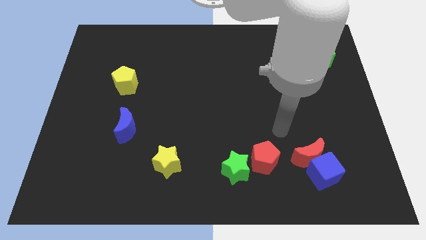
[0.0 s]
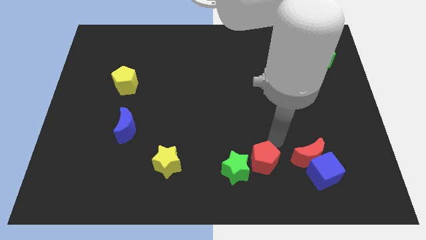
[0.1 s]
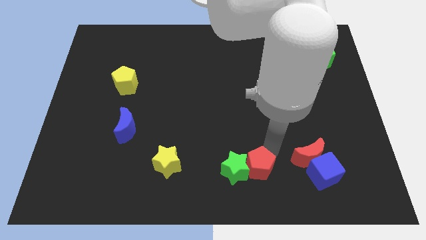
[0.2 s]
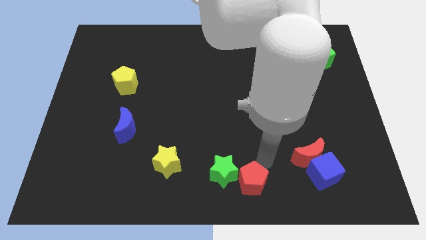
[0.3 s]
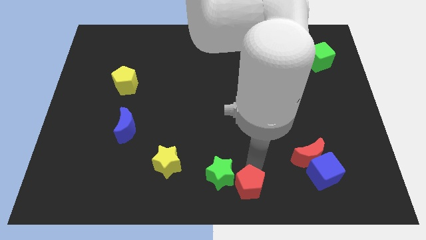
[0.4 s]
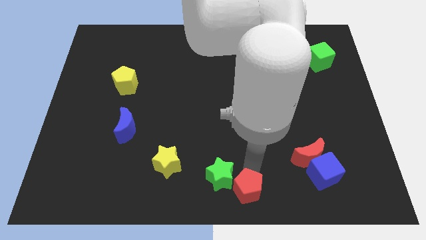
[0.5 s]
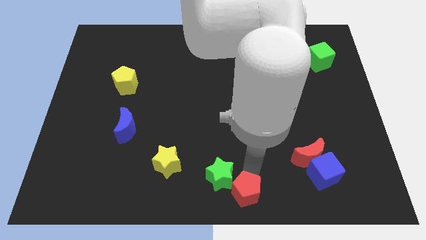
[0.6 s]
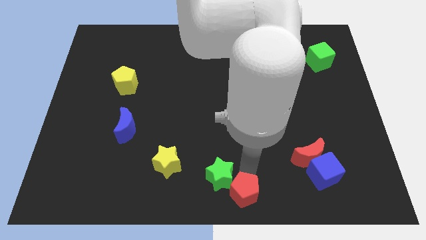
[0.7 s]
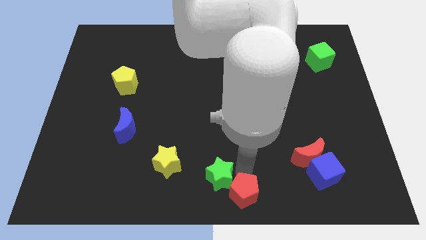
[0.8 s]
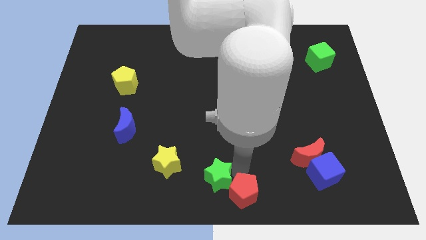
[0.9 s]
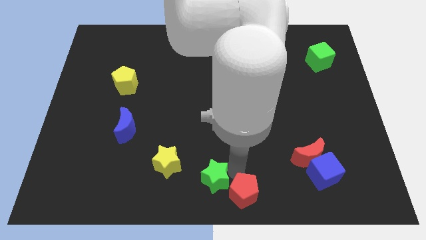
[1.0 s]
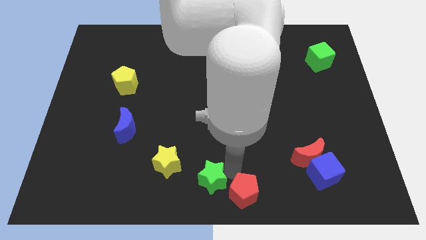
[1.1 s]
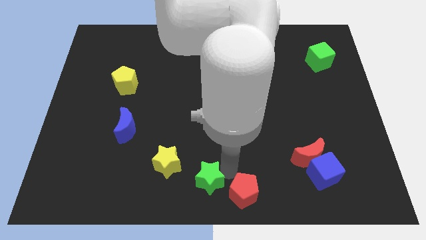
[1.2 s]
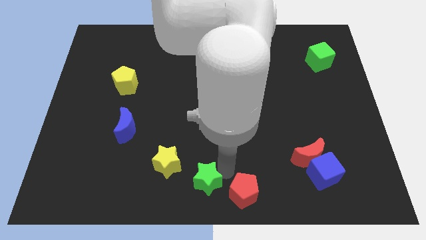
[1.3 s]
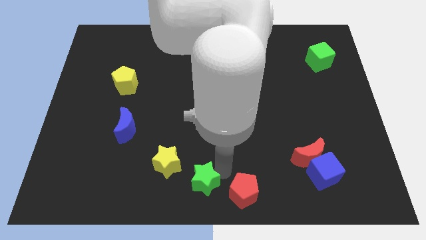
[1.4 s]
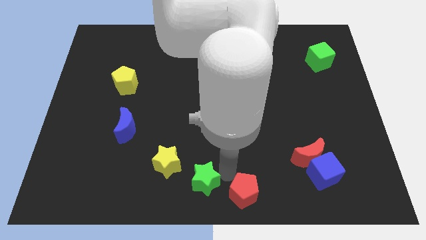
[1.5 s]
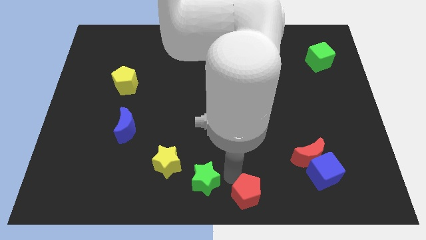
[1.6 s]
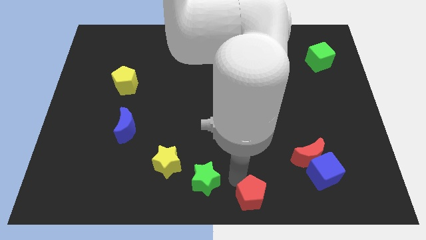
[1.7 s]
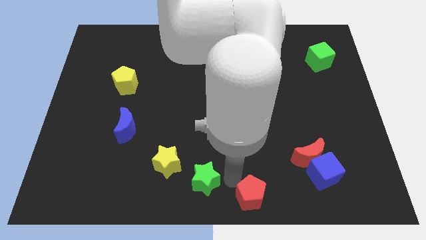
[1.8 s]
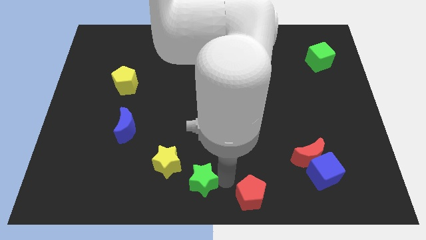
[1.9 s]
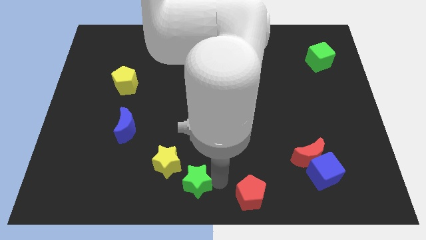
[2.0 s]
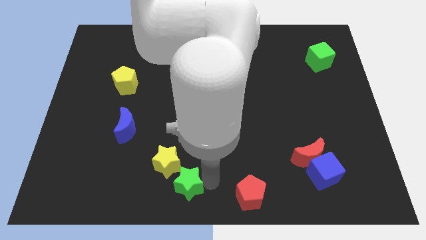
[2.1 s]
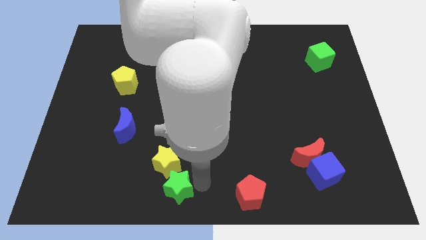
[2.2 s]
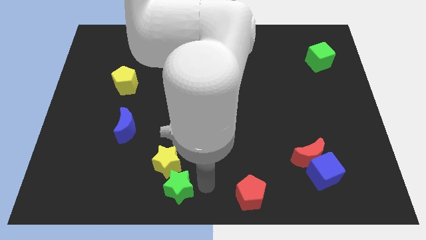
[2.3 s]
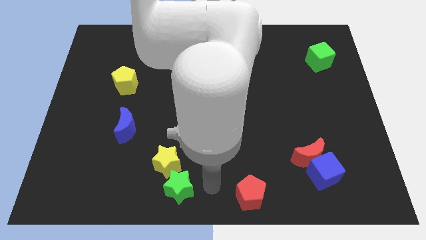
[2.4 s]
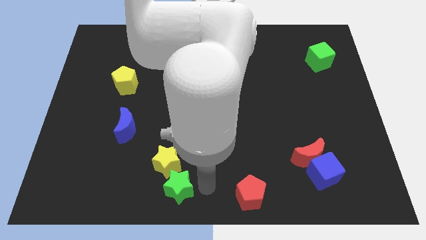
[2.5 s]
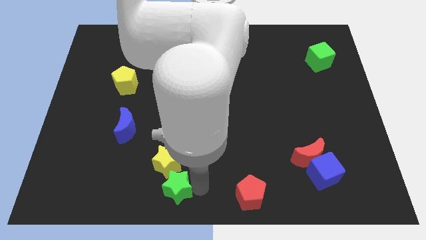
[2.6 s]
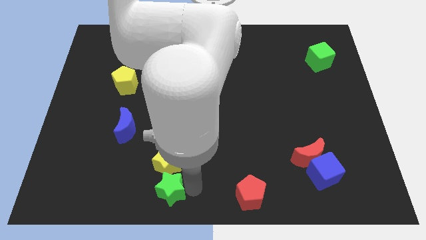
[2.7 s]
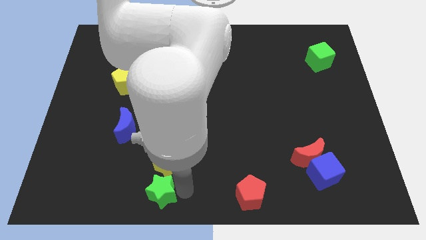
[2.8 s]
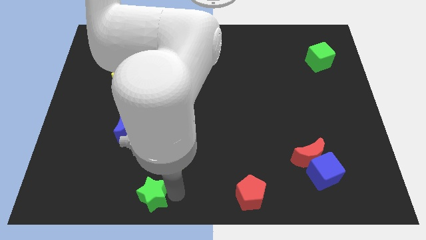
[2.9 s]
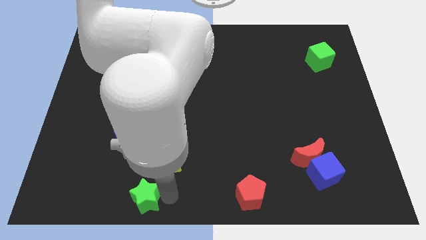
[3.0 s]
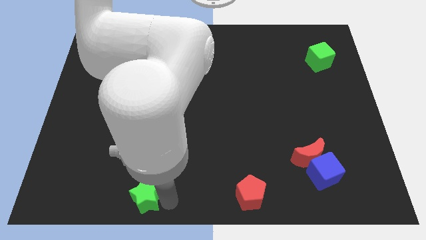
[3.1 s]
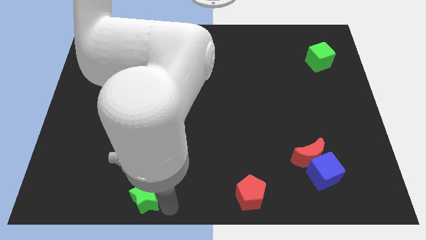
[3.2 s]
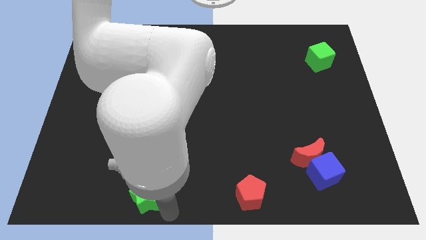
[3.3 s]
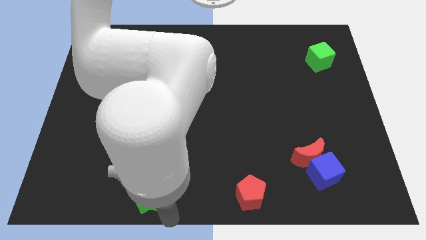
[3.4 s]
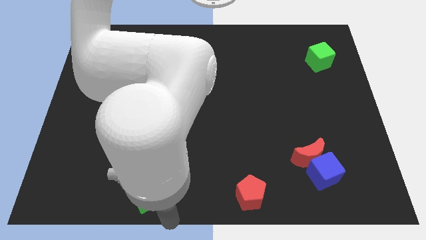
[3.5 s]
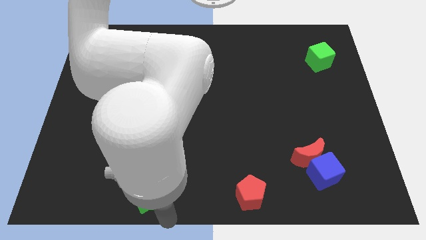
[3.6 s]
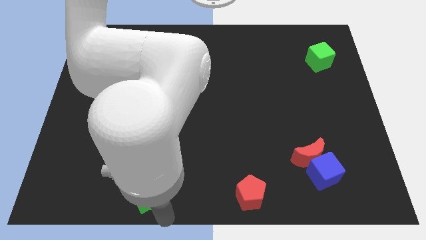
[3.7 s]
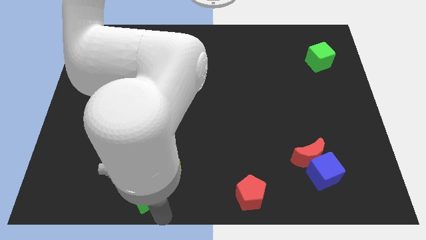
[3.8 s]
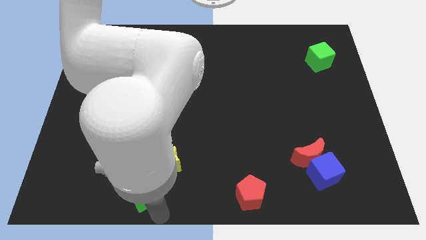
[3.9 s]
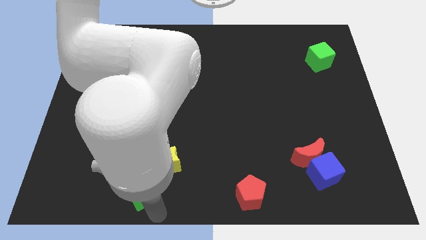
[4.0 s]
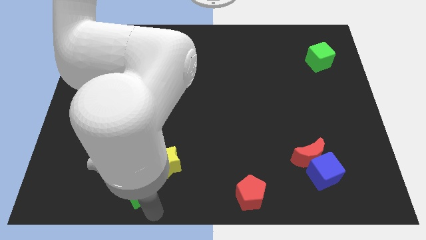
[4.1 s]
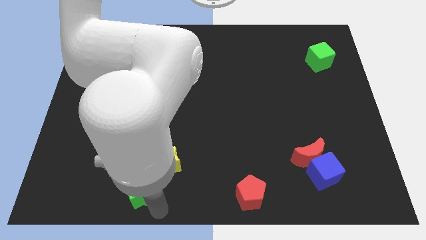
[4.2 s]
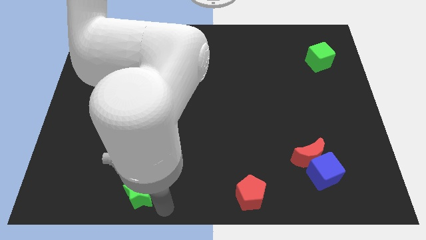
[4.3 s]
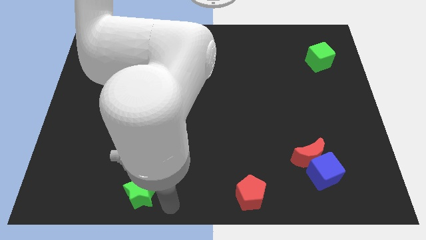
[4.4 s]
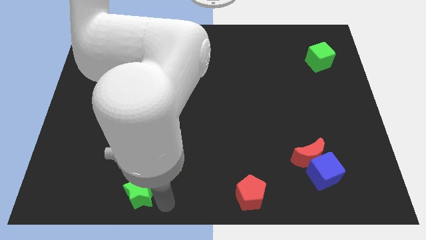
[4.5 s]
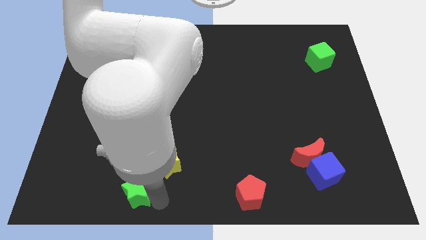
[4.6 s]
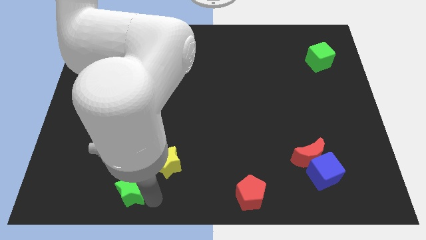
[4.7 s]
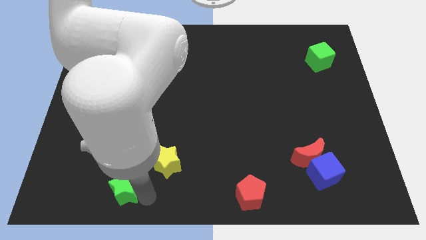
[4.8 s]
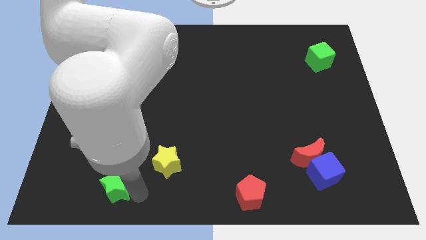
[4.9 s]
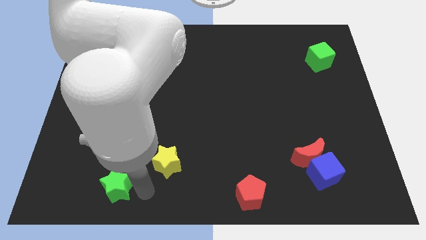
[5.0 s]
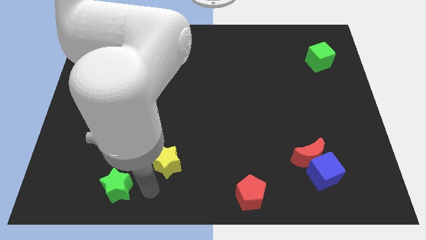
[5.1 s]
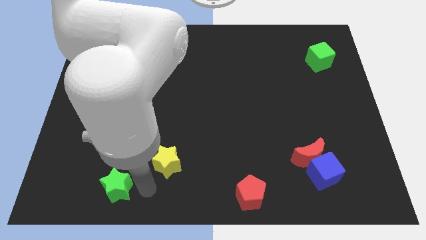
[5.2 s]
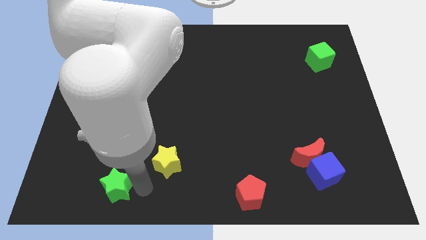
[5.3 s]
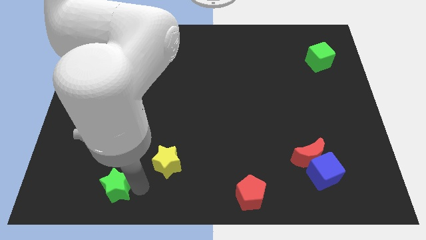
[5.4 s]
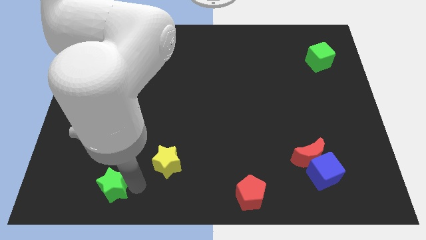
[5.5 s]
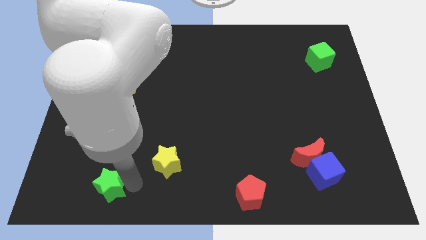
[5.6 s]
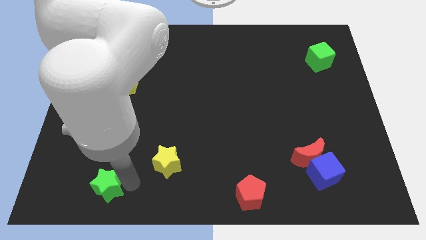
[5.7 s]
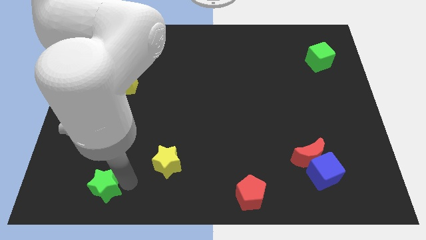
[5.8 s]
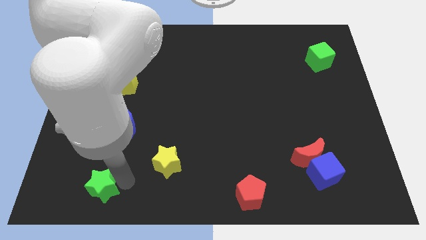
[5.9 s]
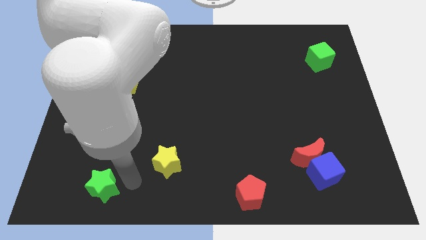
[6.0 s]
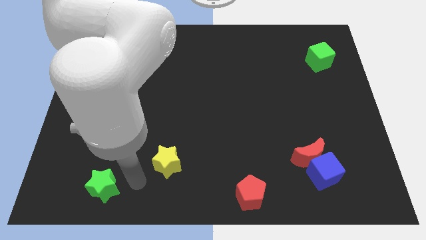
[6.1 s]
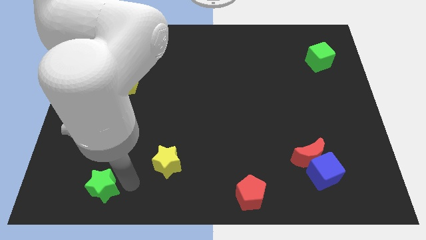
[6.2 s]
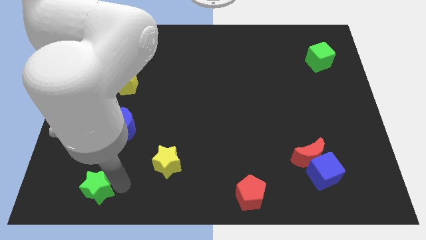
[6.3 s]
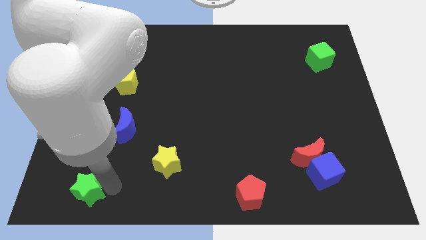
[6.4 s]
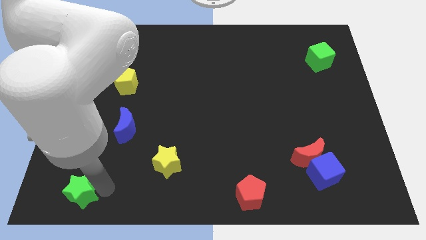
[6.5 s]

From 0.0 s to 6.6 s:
put the green star to the bottom left
